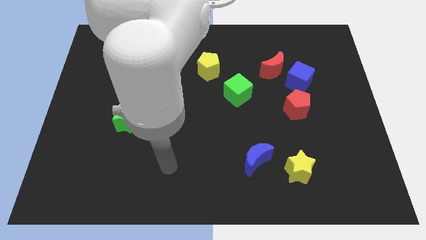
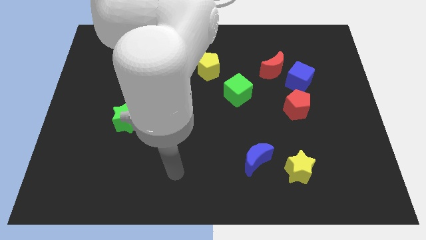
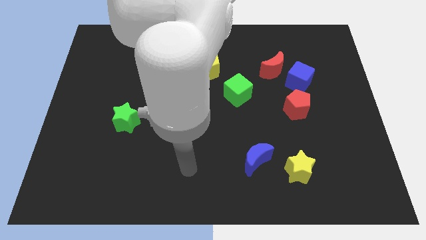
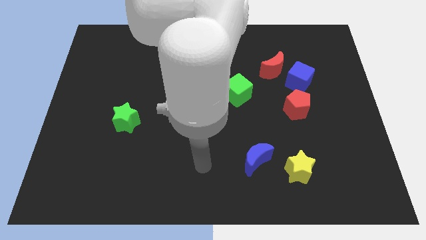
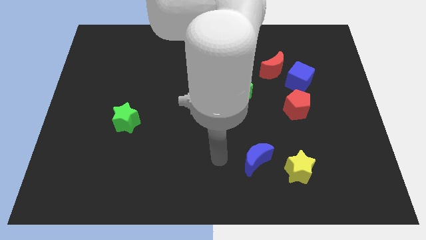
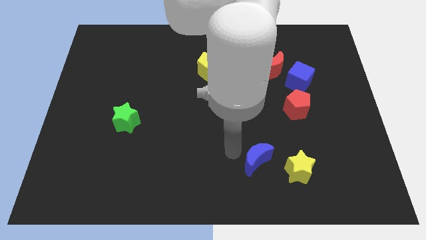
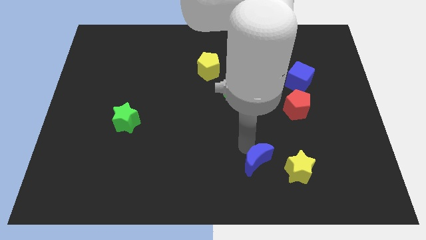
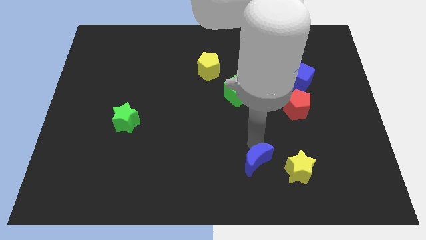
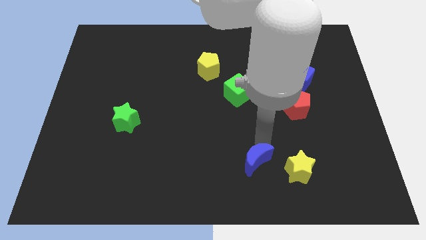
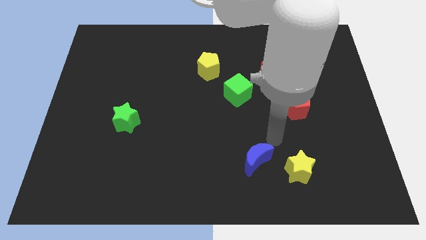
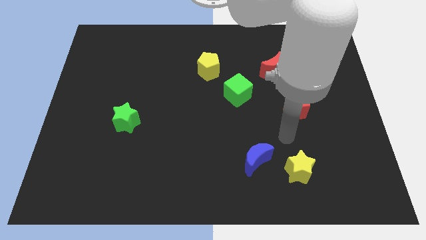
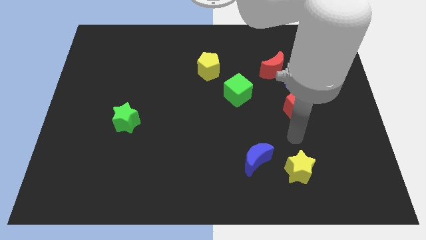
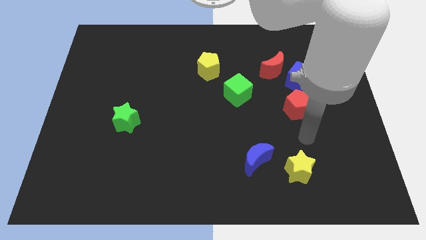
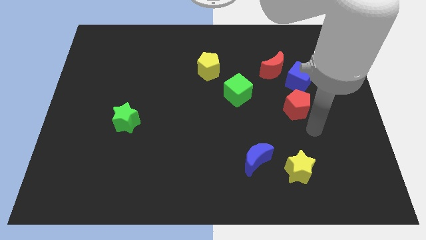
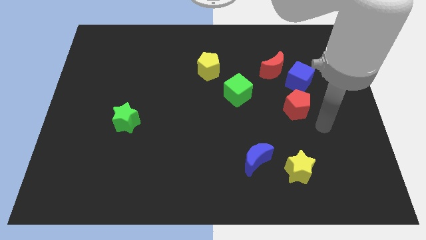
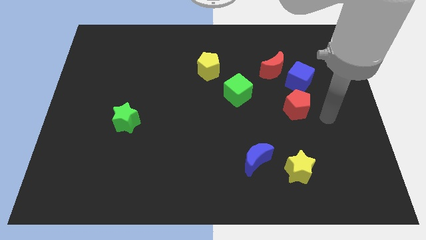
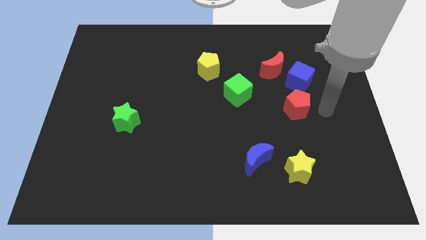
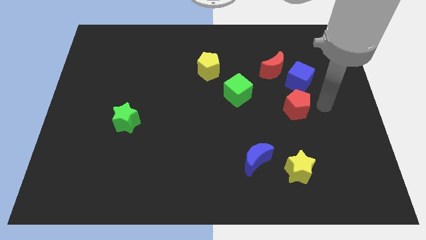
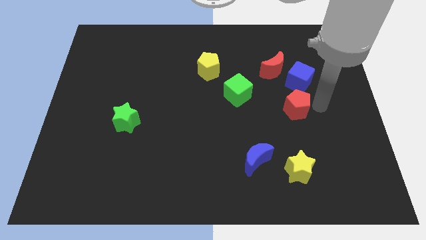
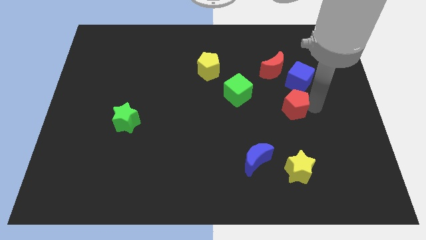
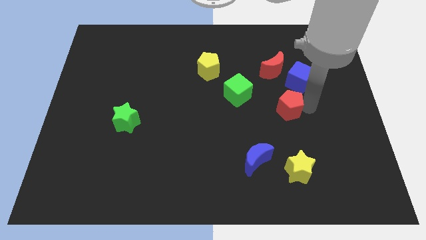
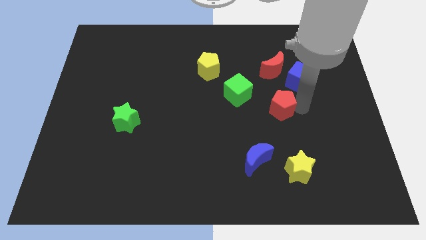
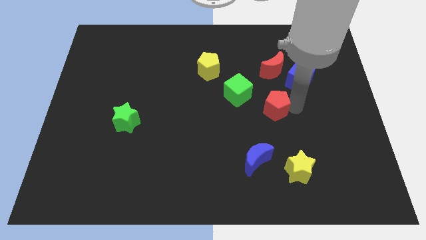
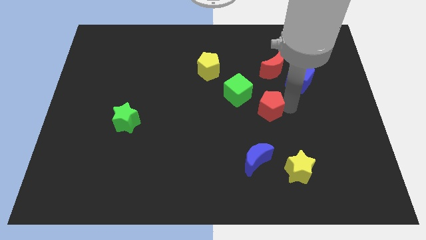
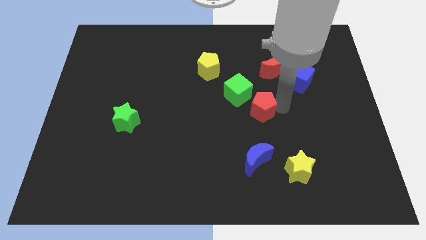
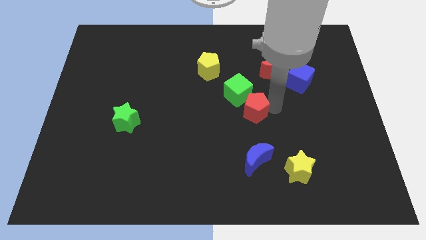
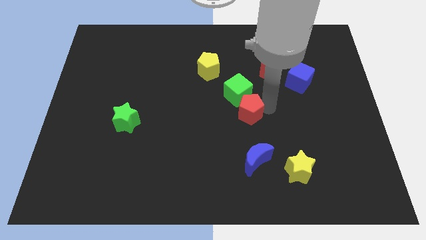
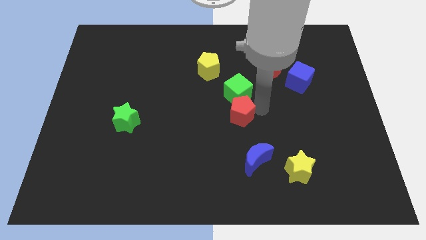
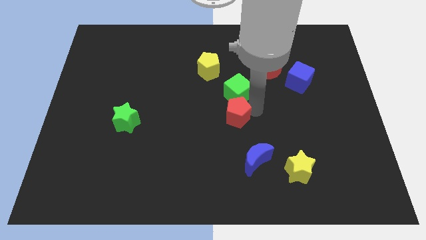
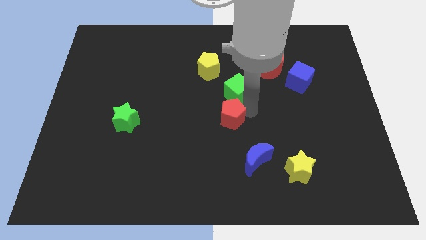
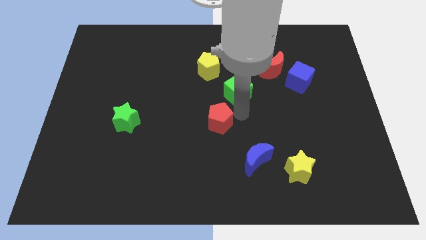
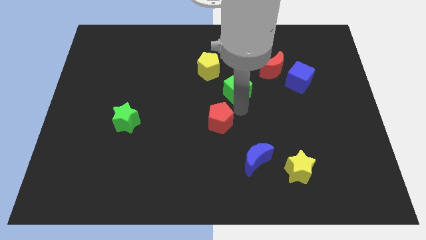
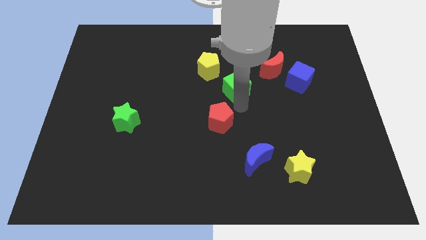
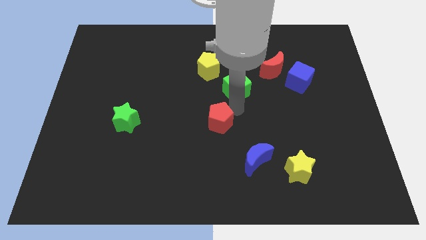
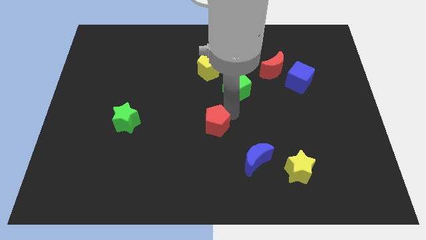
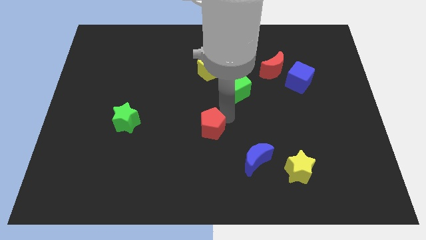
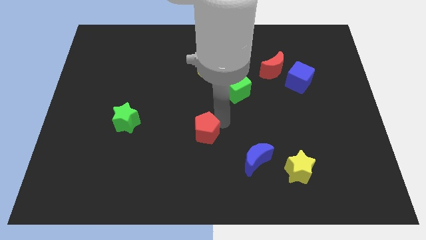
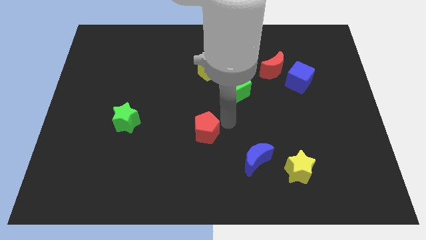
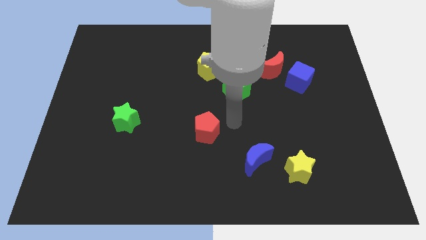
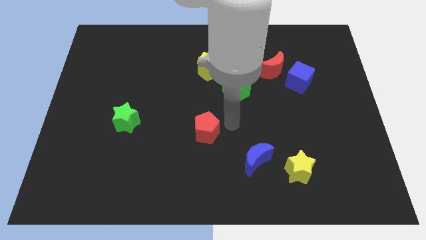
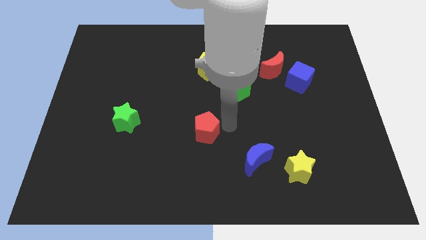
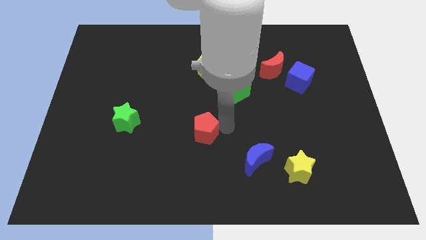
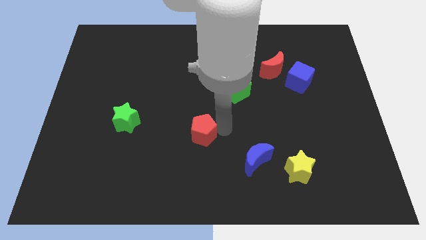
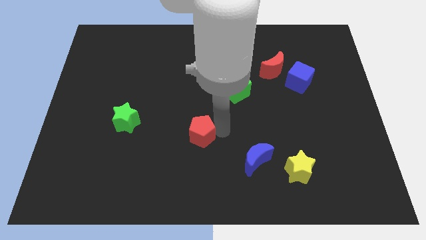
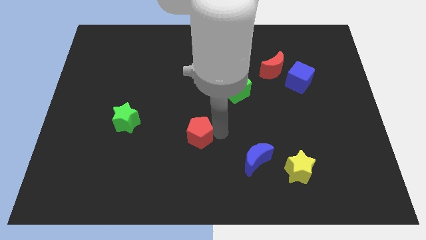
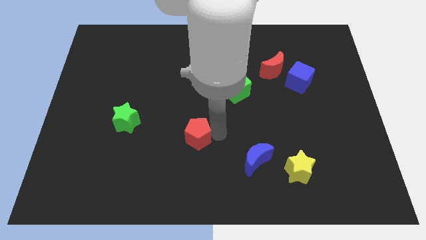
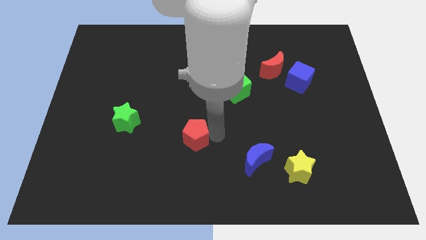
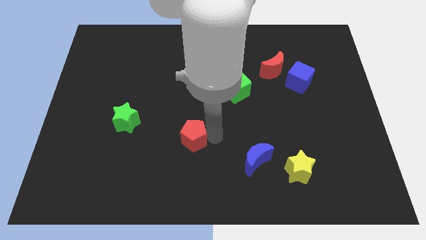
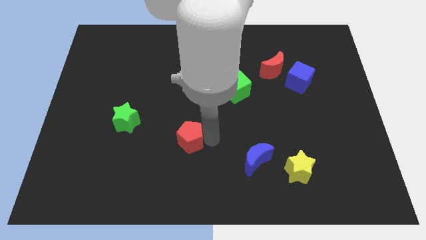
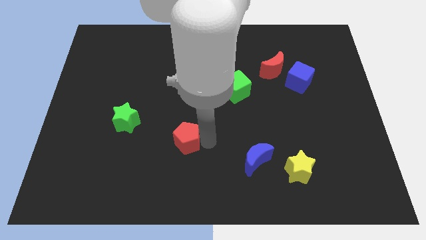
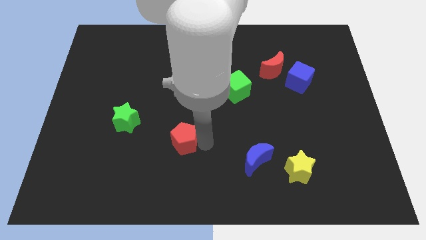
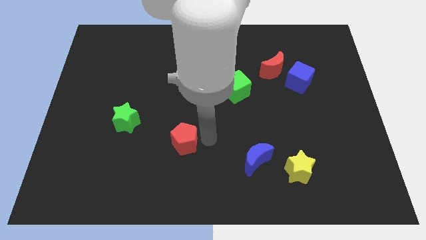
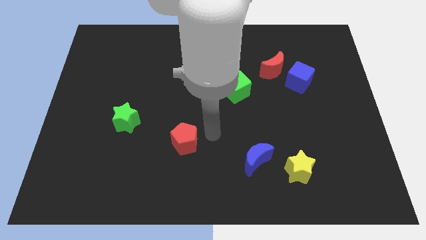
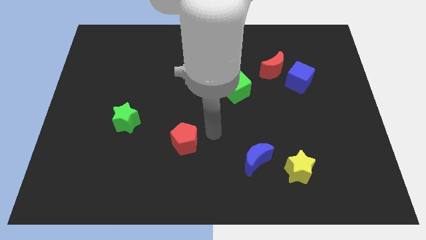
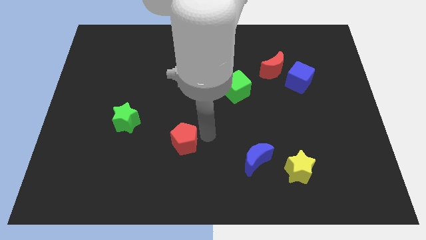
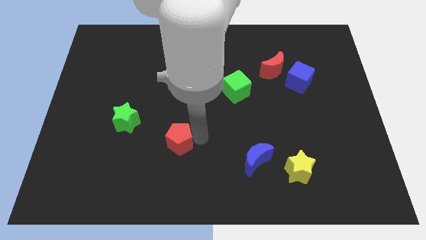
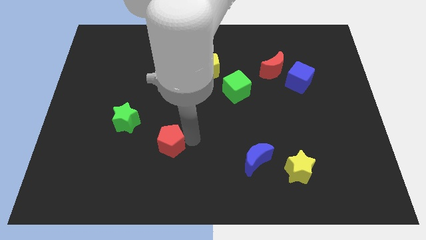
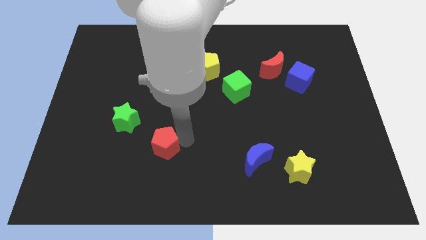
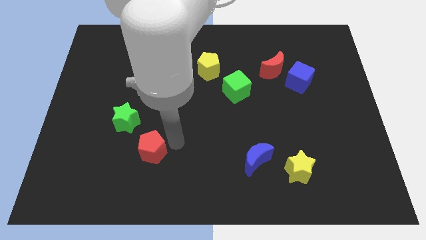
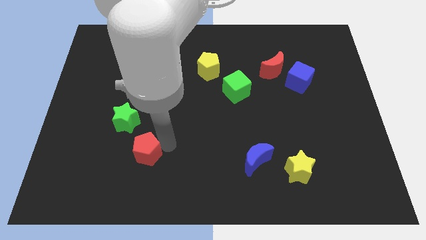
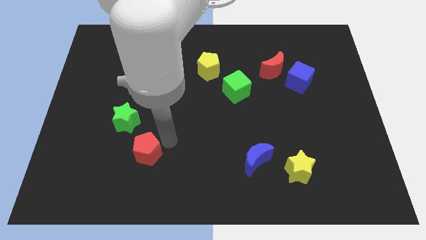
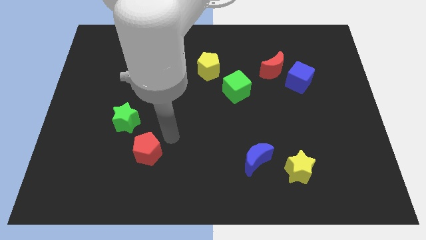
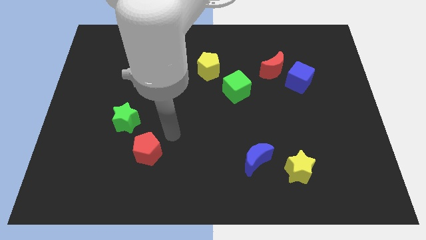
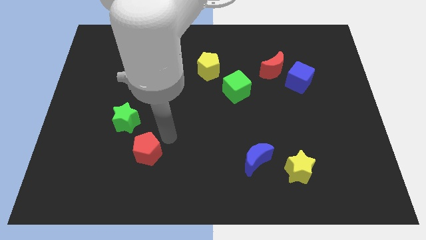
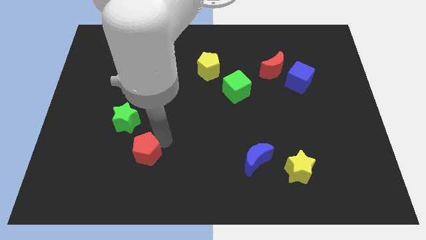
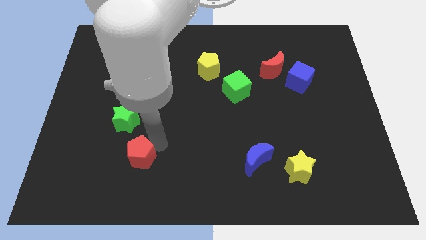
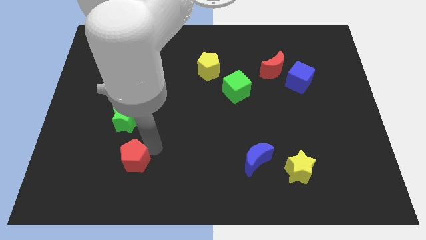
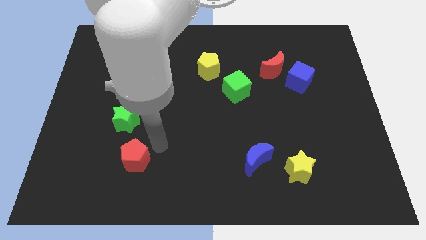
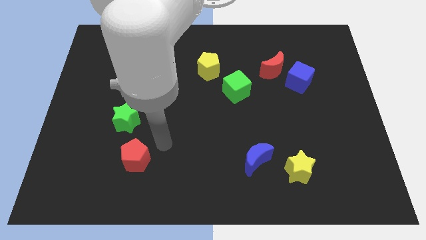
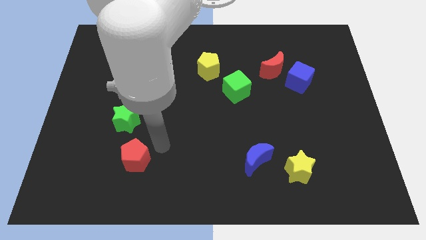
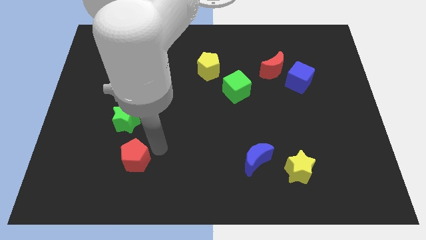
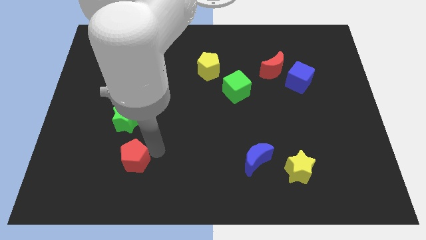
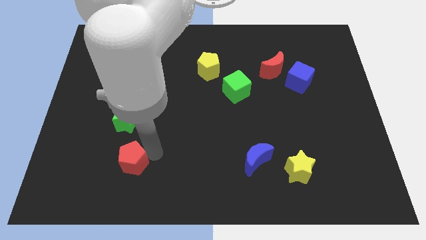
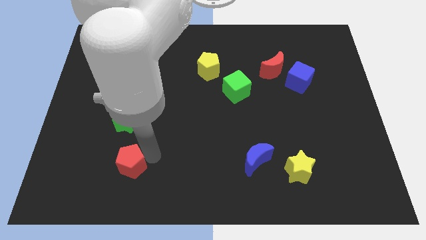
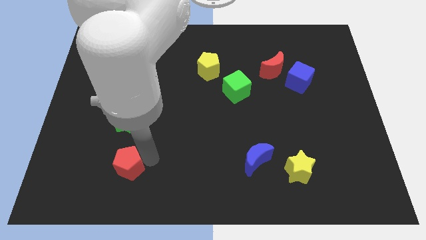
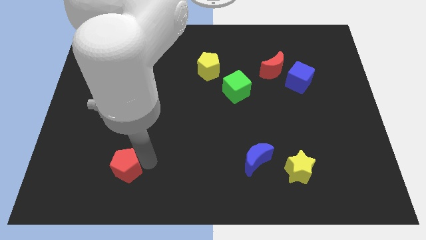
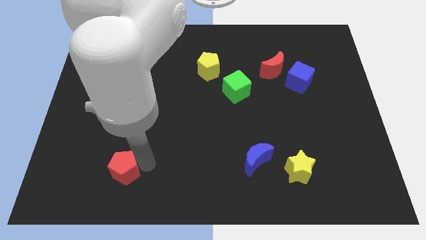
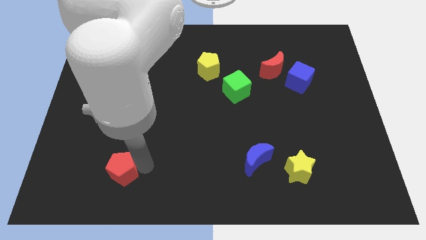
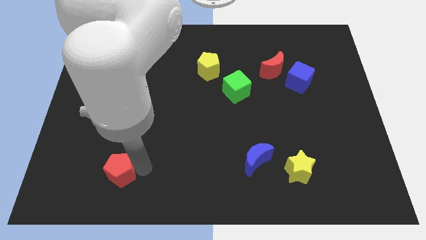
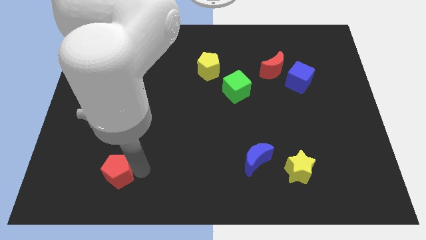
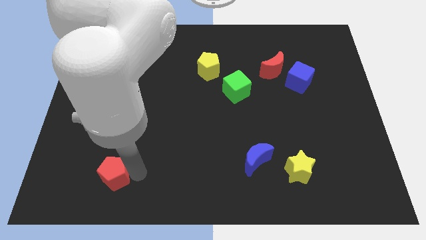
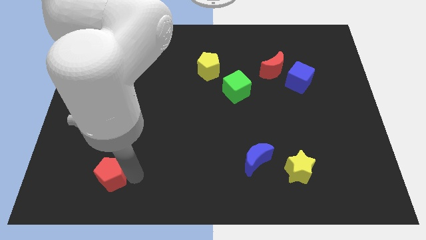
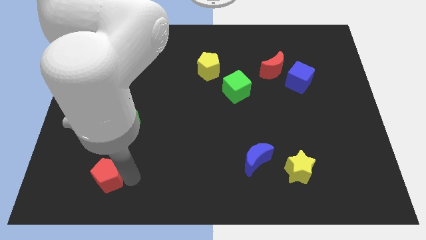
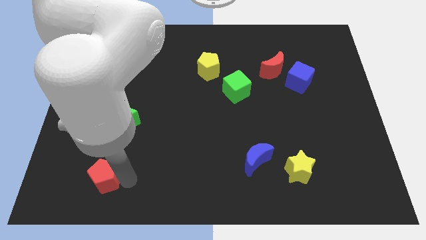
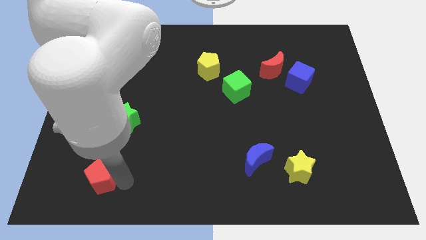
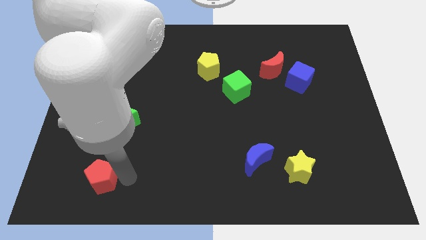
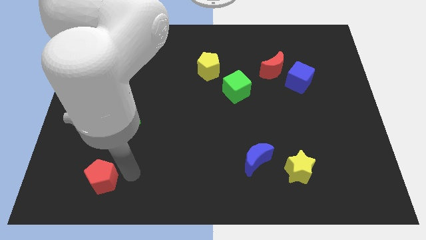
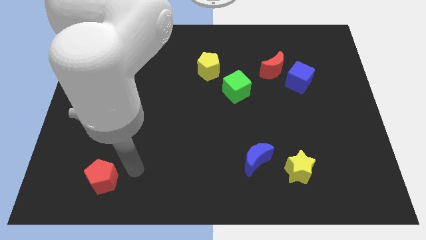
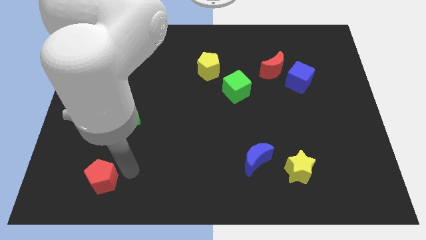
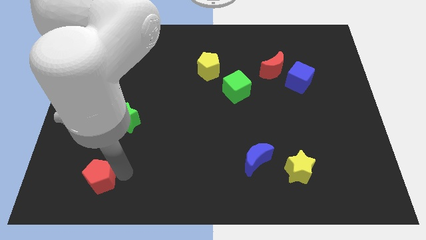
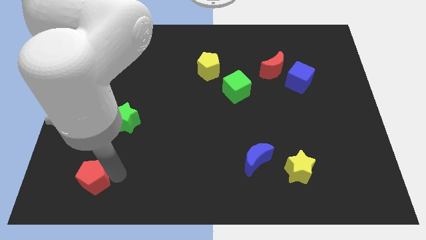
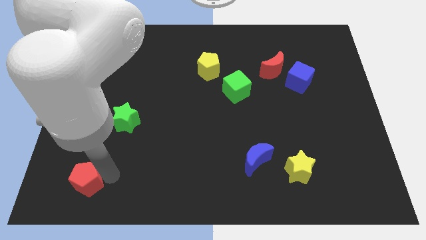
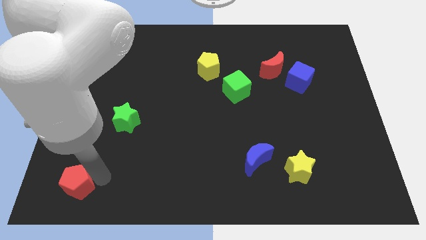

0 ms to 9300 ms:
slide the red pentagon to the bottom left corner
